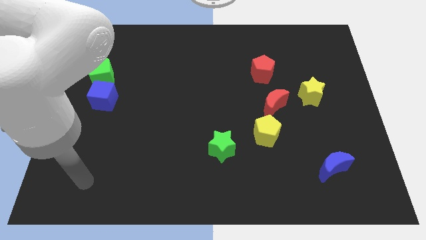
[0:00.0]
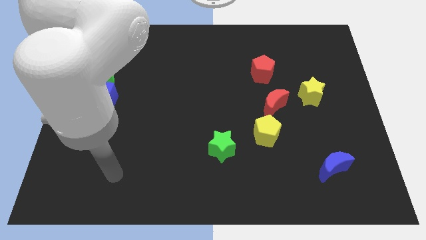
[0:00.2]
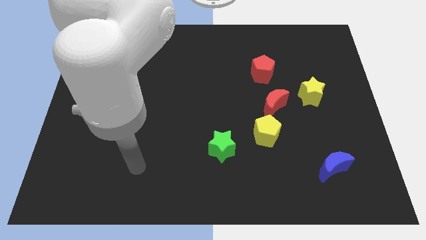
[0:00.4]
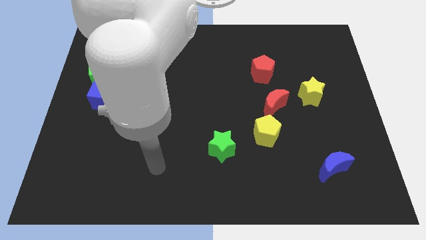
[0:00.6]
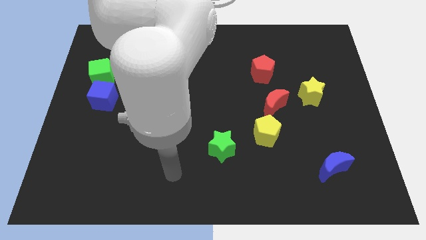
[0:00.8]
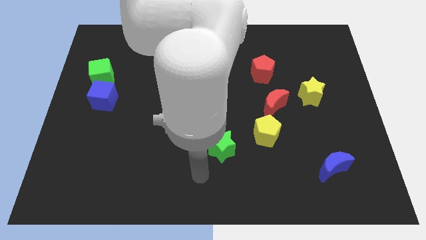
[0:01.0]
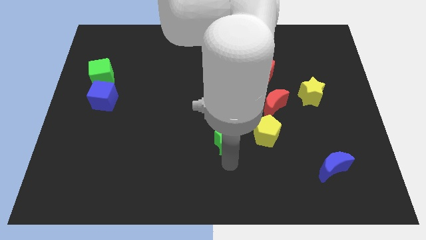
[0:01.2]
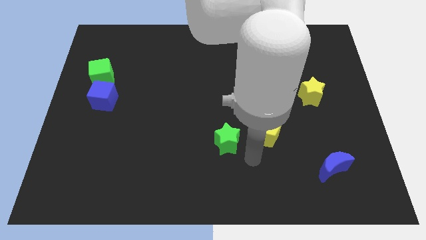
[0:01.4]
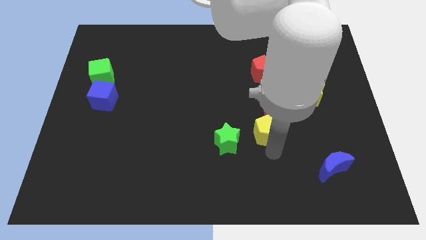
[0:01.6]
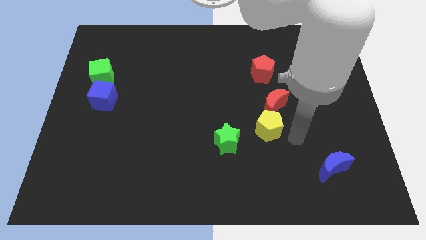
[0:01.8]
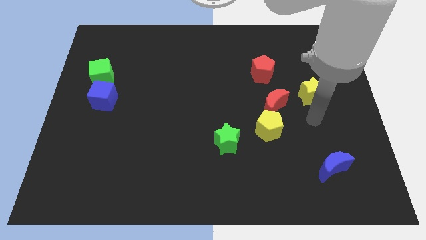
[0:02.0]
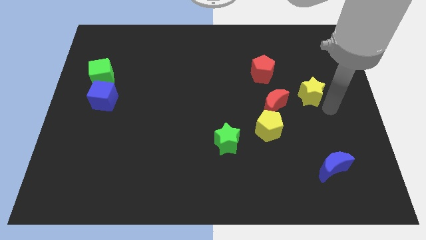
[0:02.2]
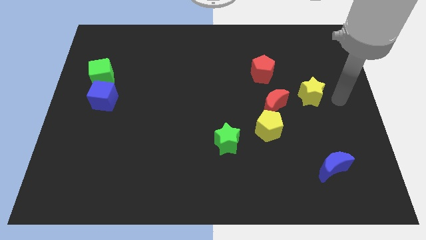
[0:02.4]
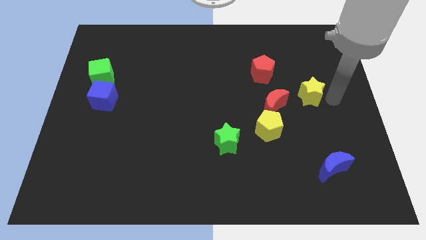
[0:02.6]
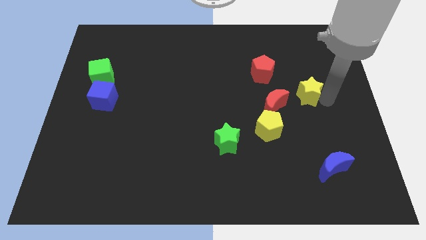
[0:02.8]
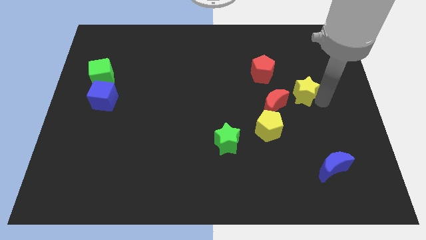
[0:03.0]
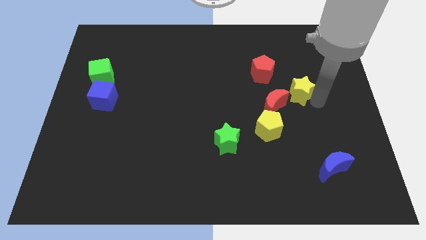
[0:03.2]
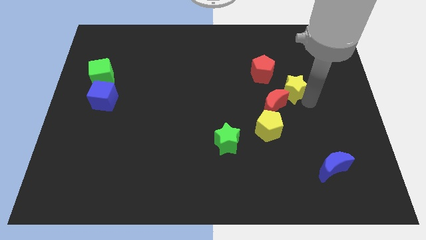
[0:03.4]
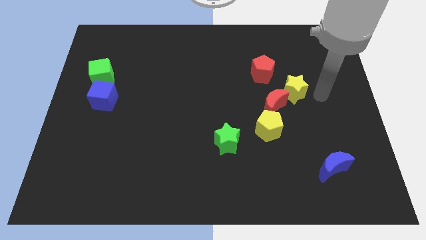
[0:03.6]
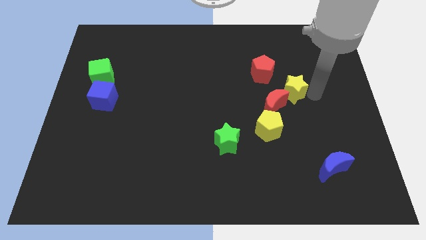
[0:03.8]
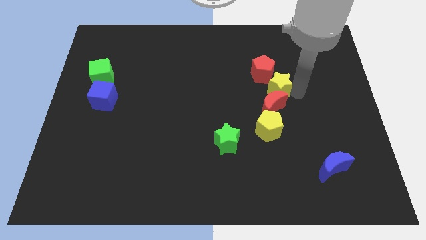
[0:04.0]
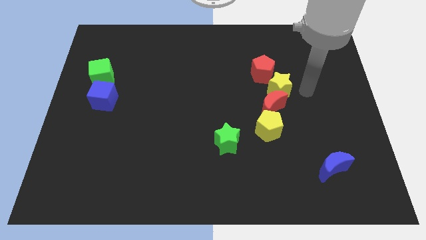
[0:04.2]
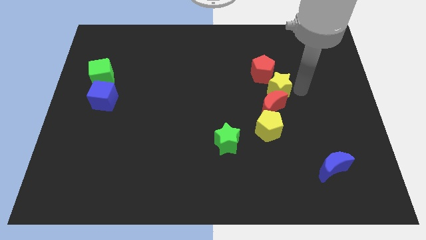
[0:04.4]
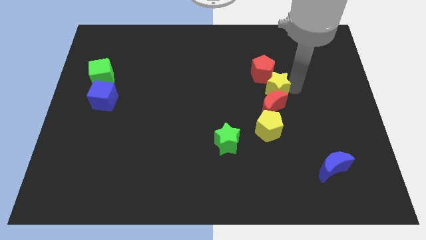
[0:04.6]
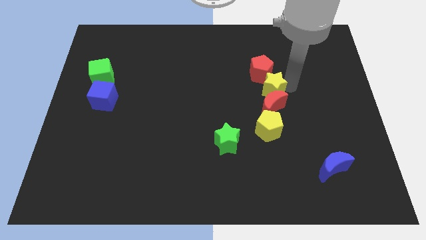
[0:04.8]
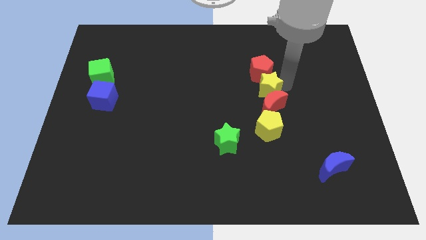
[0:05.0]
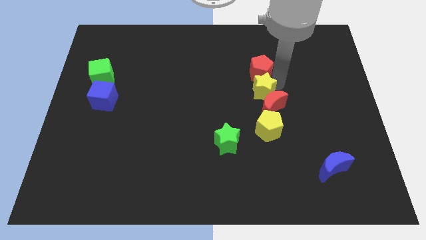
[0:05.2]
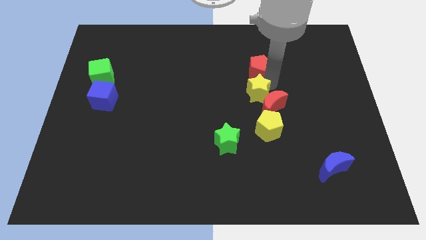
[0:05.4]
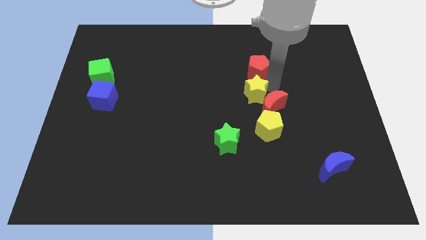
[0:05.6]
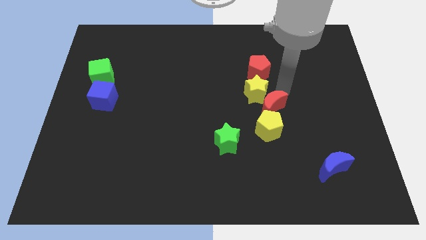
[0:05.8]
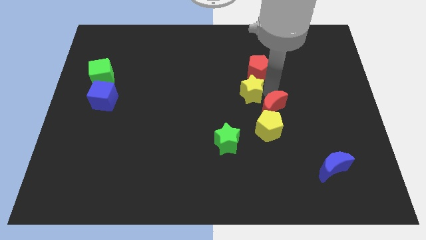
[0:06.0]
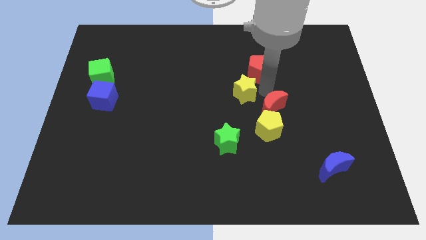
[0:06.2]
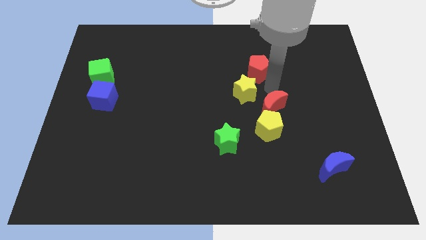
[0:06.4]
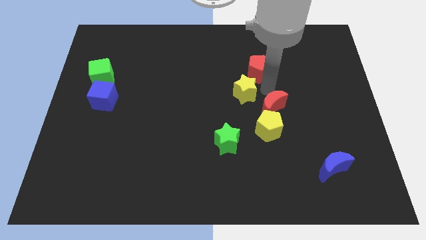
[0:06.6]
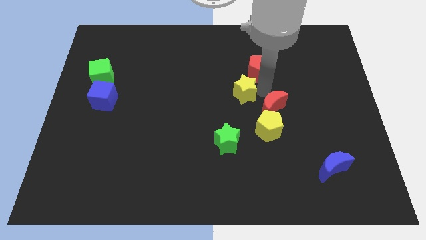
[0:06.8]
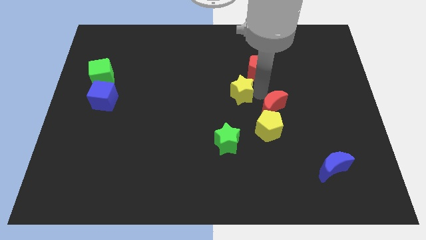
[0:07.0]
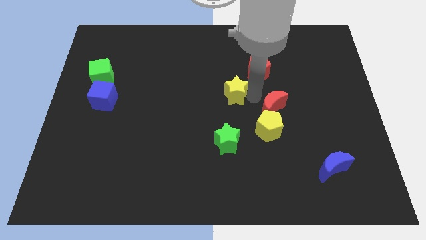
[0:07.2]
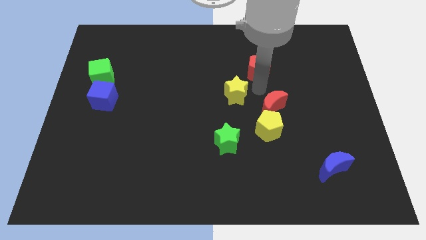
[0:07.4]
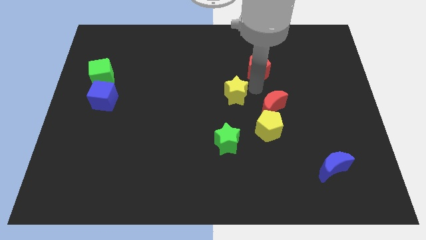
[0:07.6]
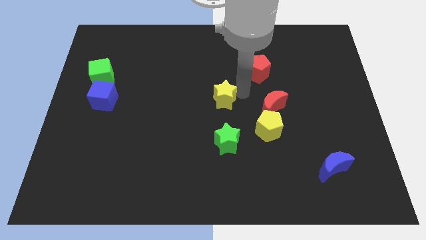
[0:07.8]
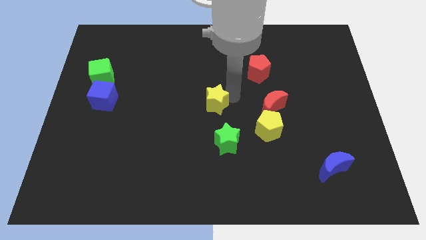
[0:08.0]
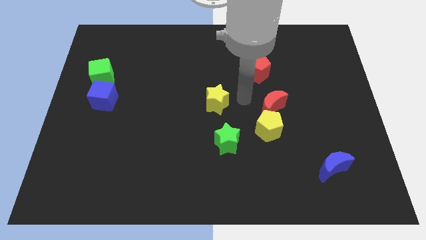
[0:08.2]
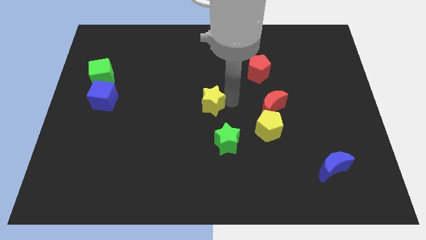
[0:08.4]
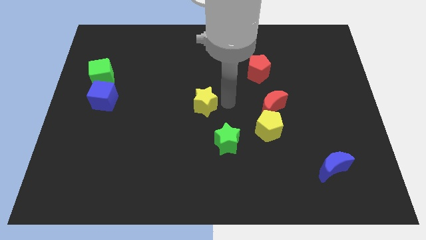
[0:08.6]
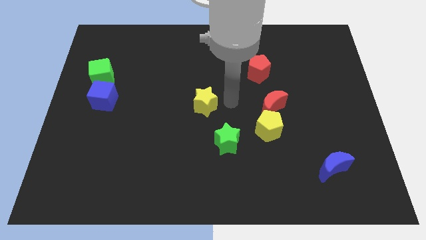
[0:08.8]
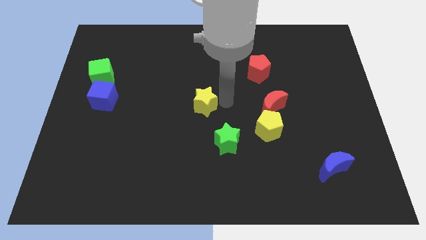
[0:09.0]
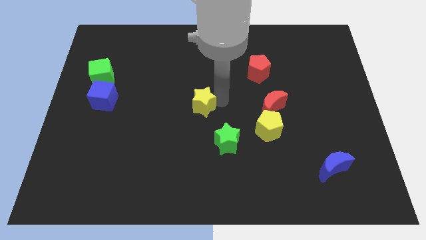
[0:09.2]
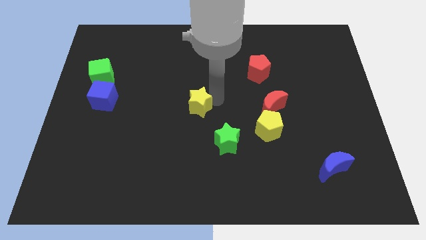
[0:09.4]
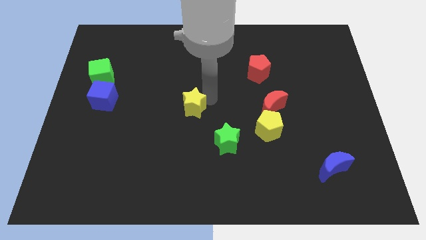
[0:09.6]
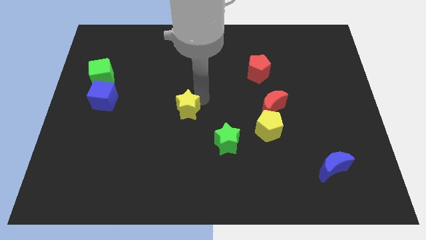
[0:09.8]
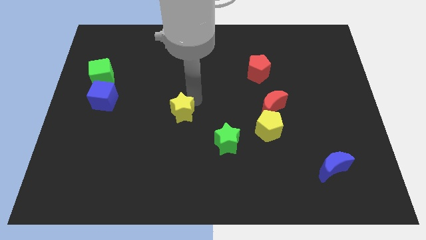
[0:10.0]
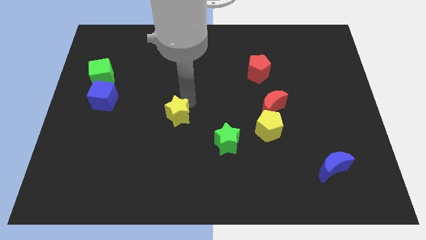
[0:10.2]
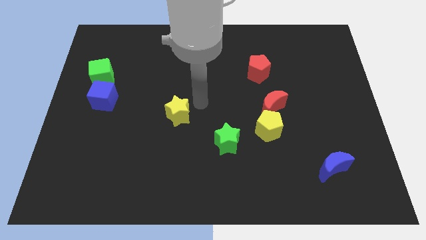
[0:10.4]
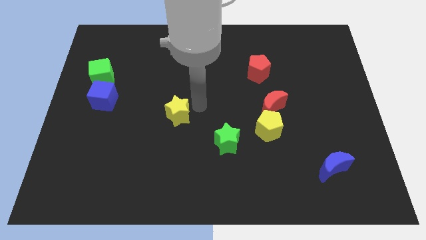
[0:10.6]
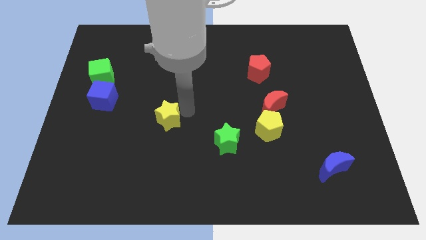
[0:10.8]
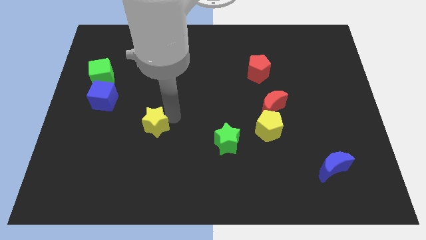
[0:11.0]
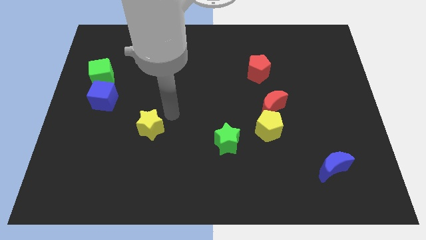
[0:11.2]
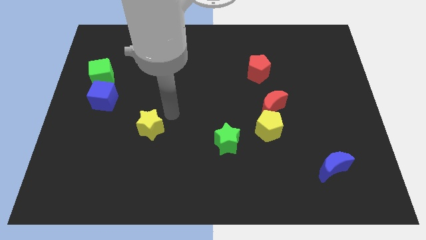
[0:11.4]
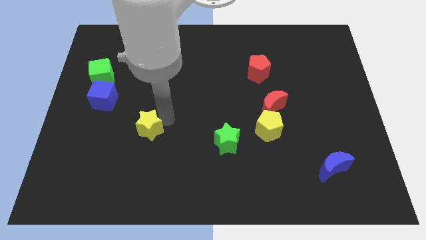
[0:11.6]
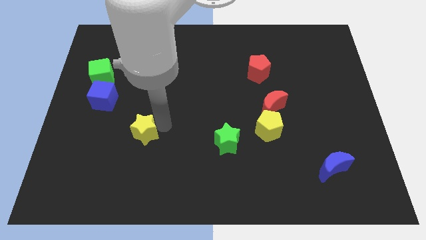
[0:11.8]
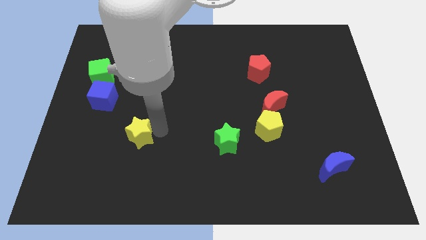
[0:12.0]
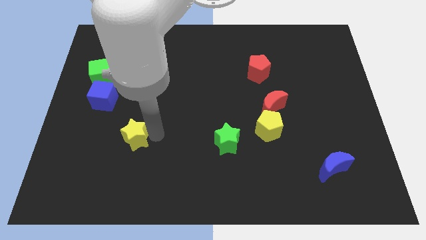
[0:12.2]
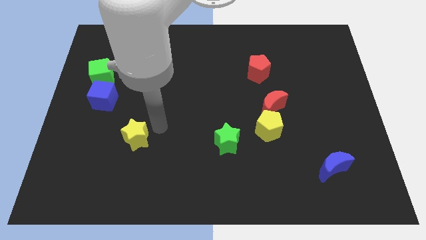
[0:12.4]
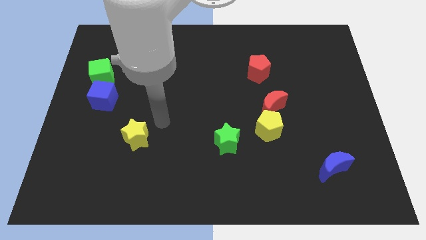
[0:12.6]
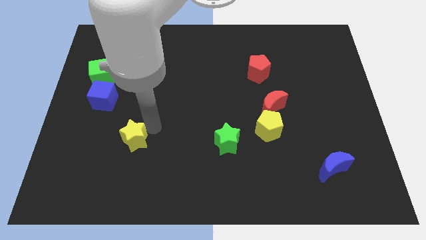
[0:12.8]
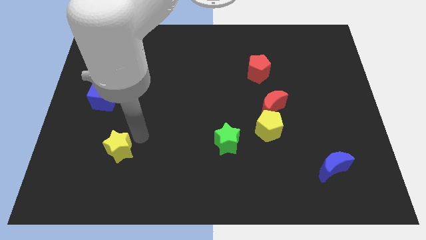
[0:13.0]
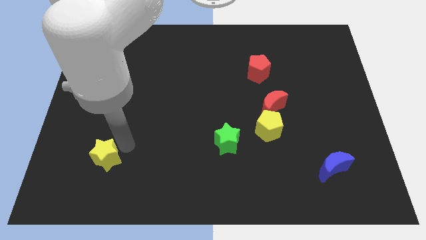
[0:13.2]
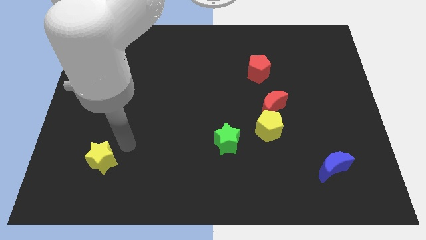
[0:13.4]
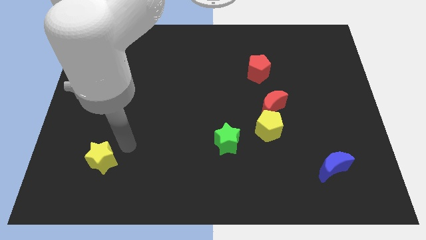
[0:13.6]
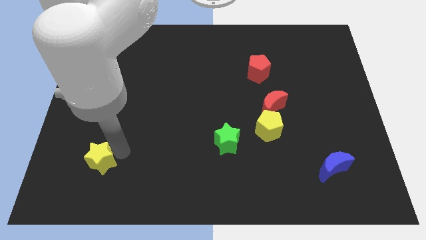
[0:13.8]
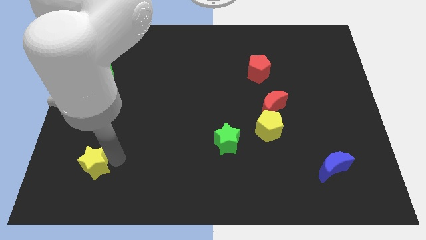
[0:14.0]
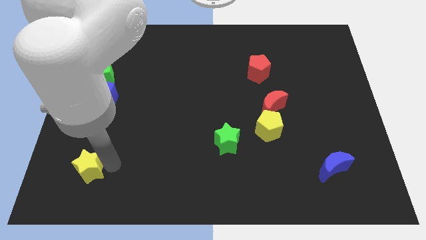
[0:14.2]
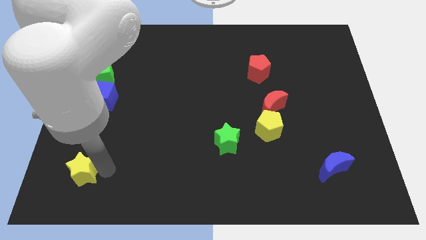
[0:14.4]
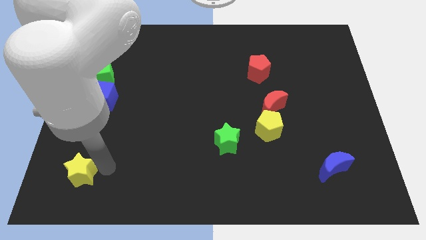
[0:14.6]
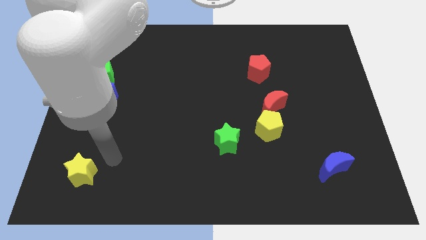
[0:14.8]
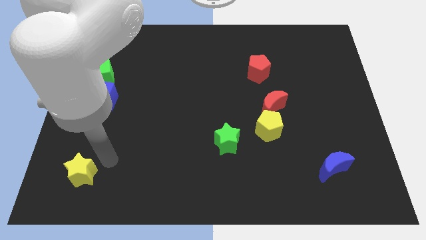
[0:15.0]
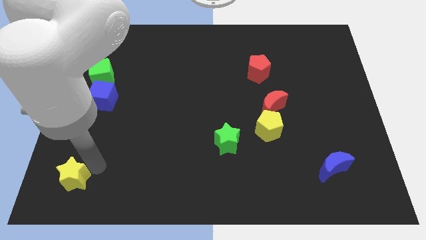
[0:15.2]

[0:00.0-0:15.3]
slide the yellow star to the bottom left corner
